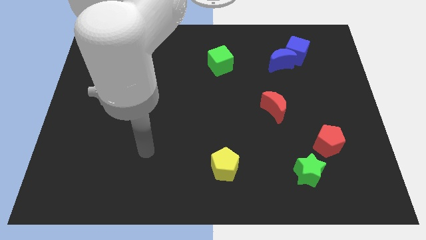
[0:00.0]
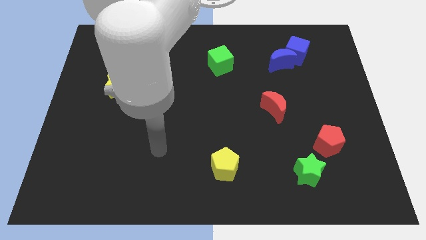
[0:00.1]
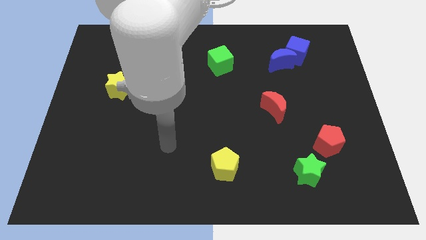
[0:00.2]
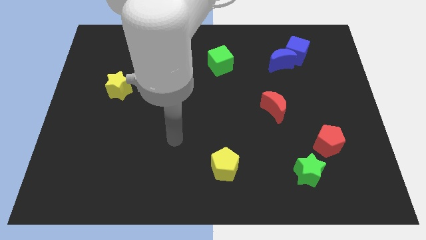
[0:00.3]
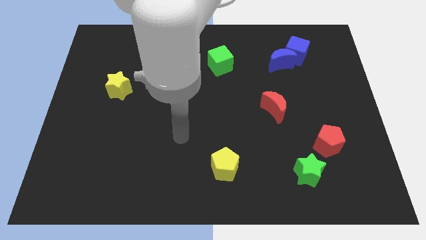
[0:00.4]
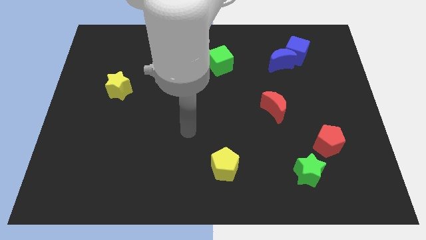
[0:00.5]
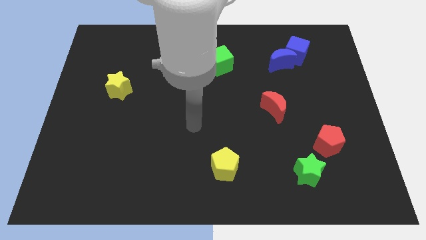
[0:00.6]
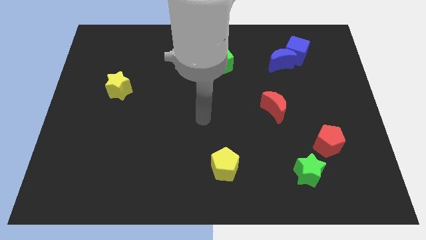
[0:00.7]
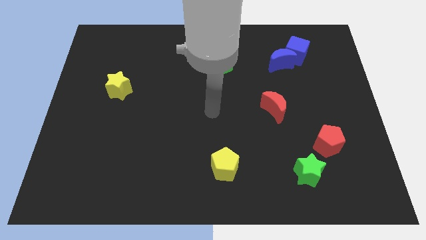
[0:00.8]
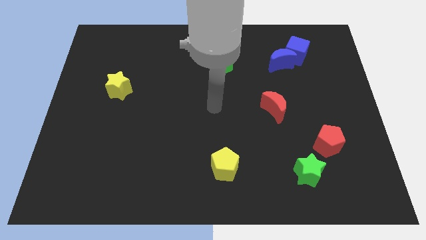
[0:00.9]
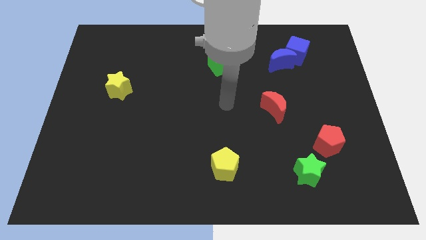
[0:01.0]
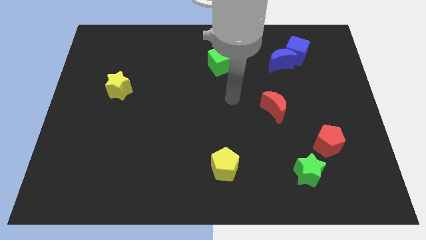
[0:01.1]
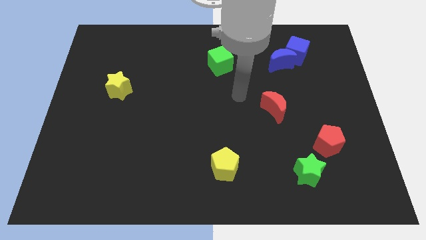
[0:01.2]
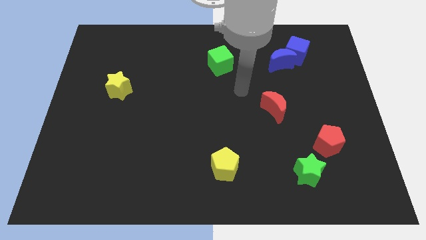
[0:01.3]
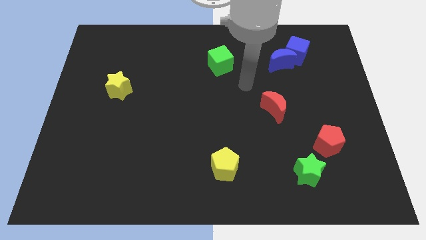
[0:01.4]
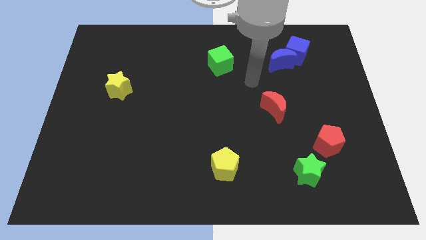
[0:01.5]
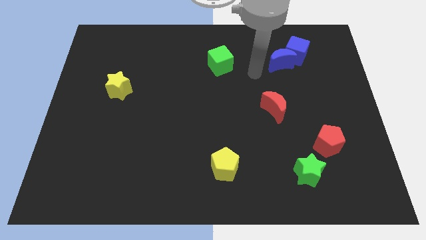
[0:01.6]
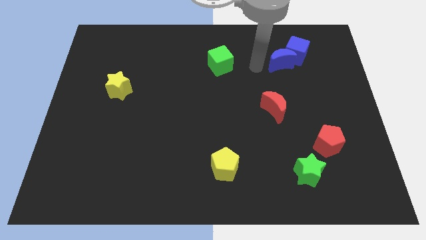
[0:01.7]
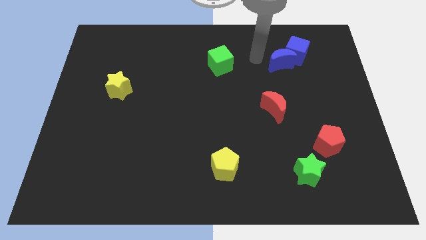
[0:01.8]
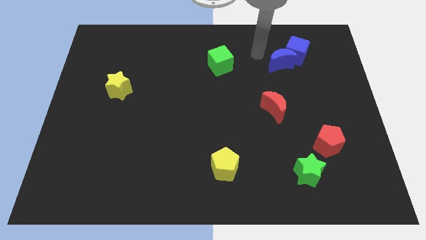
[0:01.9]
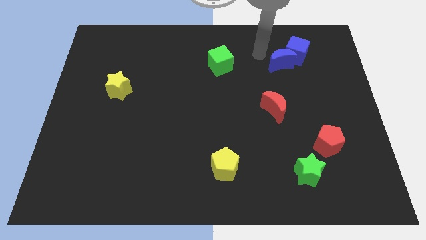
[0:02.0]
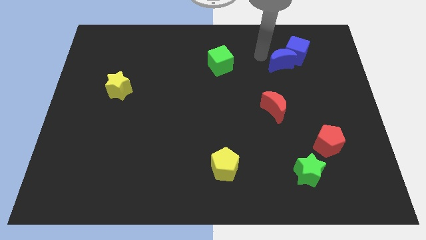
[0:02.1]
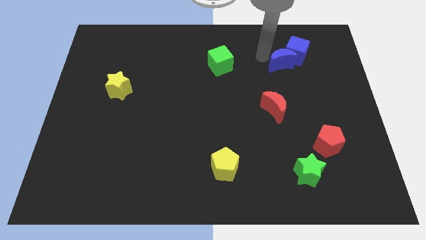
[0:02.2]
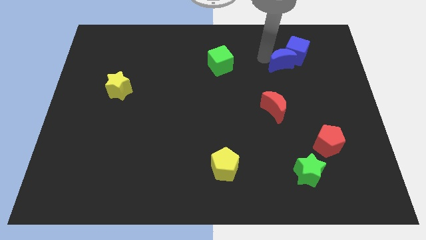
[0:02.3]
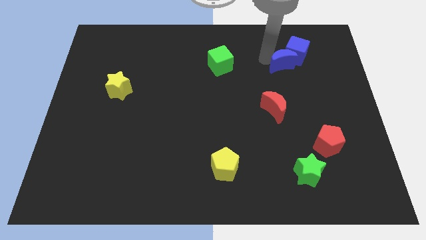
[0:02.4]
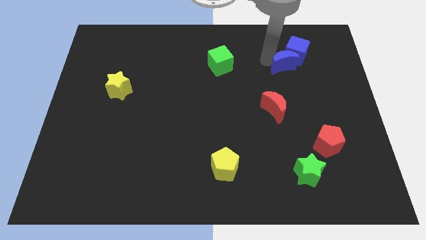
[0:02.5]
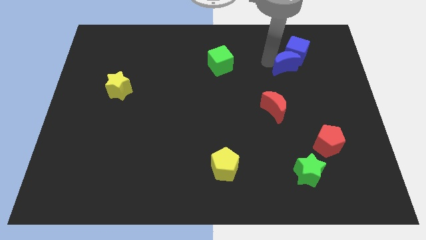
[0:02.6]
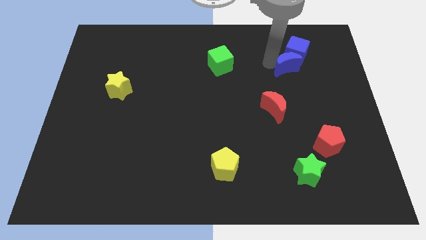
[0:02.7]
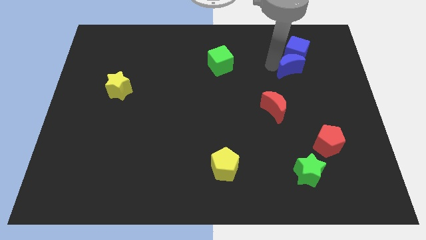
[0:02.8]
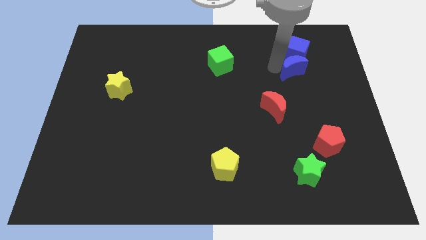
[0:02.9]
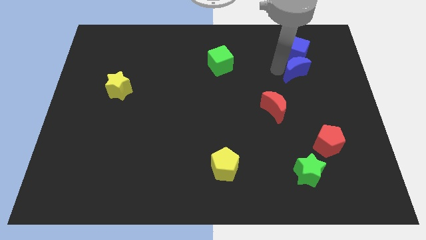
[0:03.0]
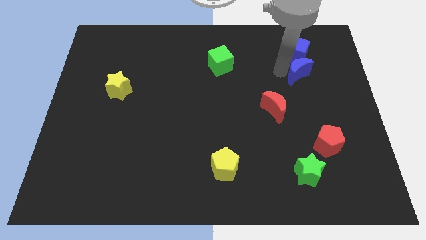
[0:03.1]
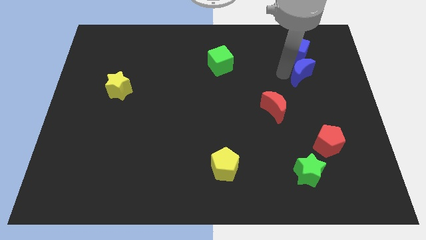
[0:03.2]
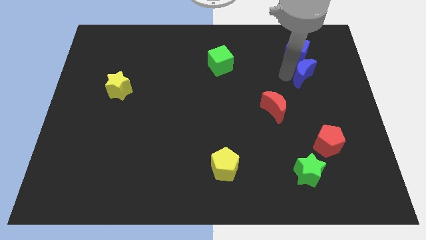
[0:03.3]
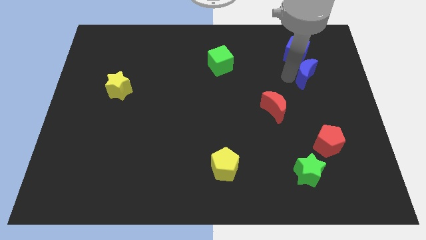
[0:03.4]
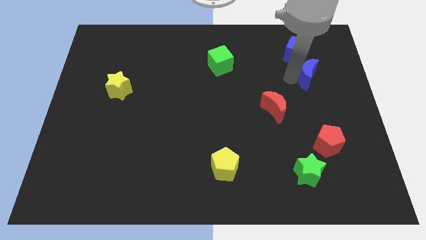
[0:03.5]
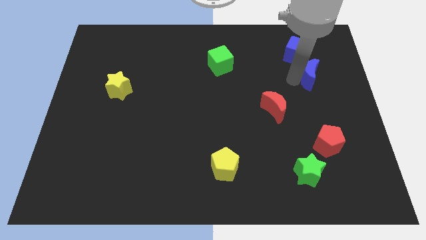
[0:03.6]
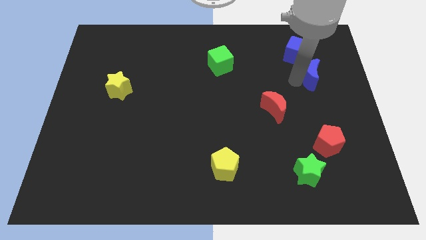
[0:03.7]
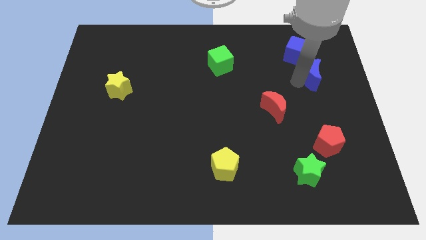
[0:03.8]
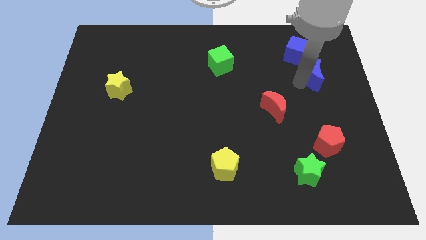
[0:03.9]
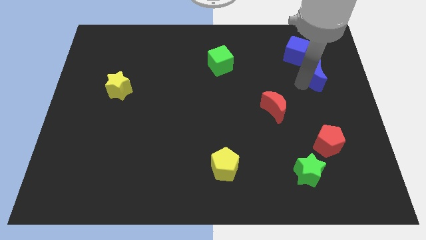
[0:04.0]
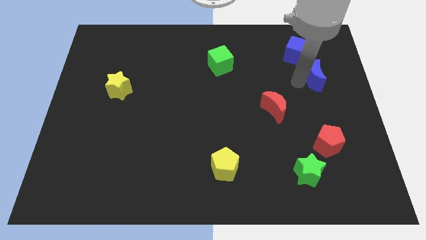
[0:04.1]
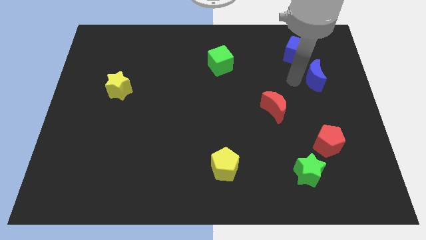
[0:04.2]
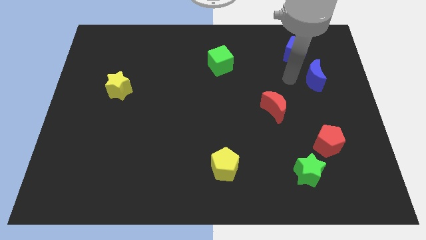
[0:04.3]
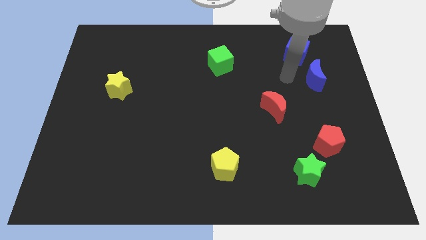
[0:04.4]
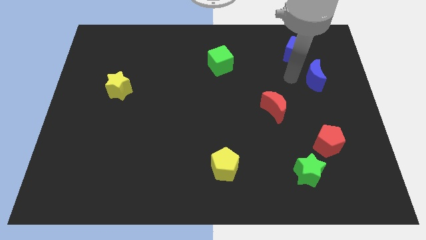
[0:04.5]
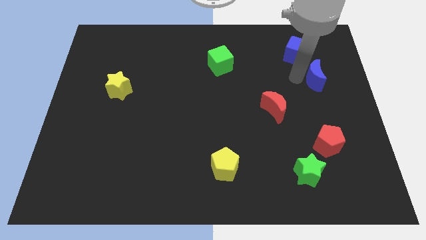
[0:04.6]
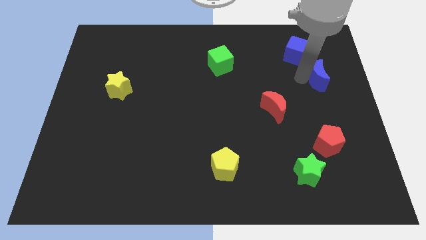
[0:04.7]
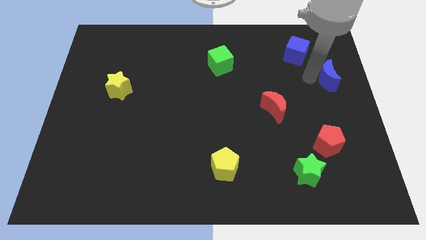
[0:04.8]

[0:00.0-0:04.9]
move the blue moon to the center right

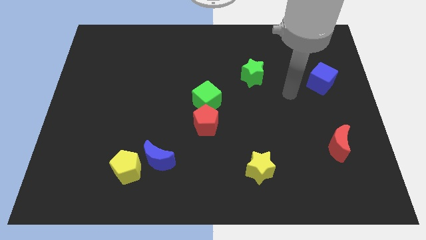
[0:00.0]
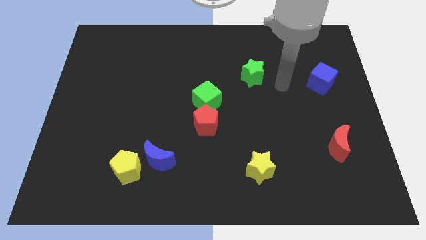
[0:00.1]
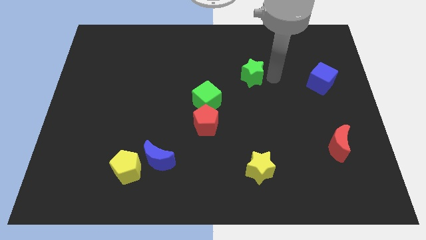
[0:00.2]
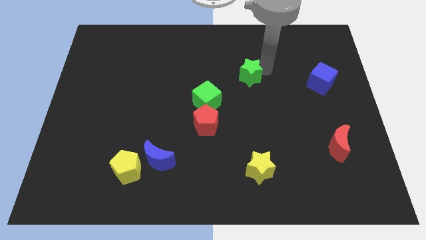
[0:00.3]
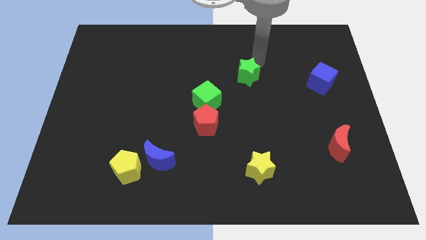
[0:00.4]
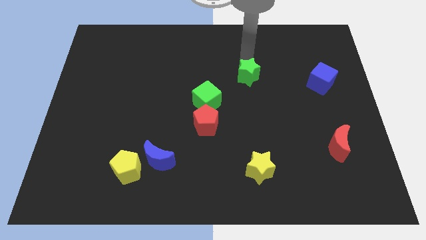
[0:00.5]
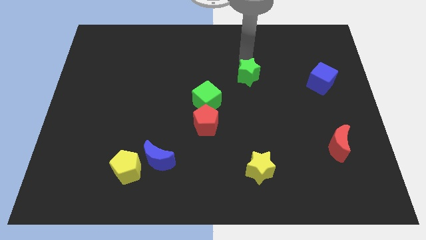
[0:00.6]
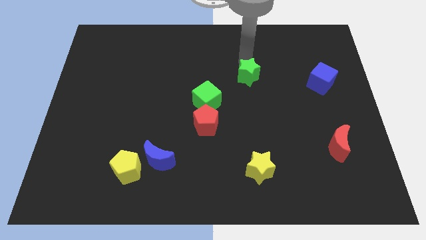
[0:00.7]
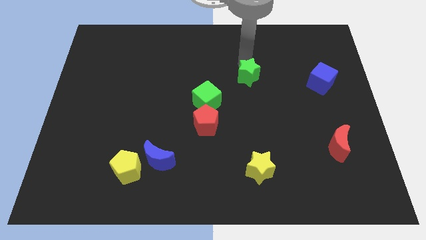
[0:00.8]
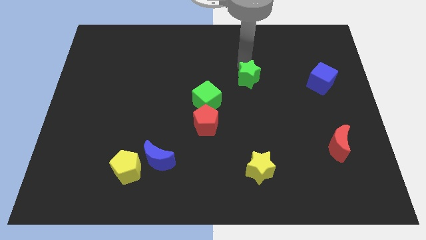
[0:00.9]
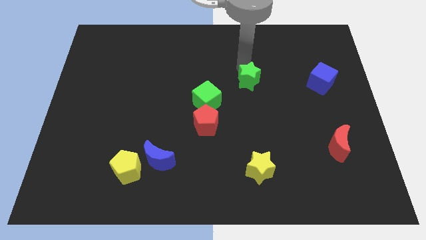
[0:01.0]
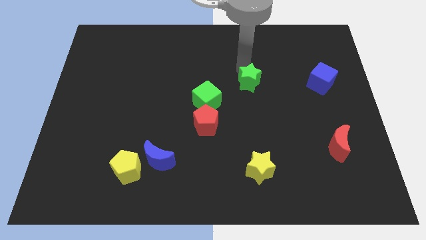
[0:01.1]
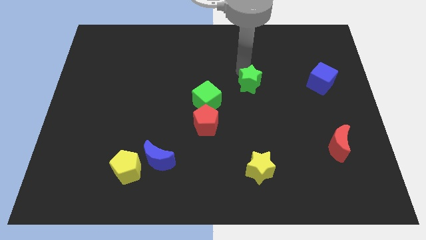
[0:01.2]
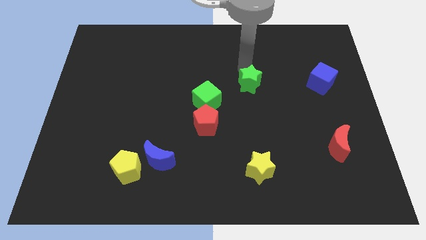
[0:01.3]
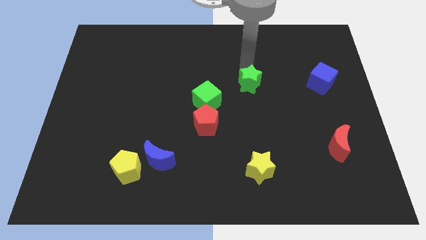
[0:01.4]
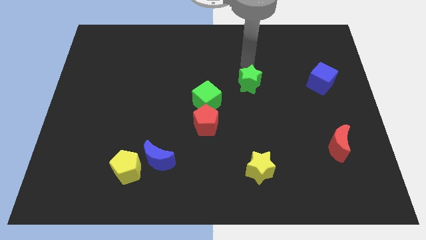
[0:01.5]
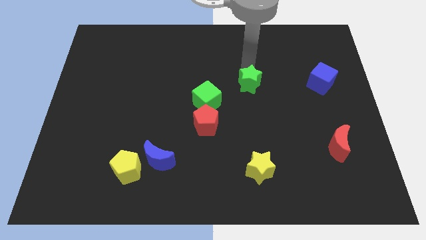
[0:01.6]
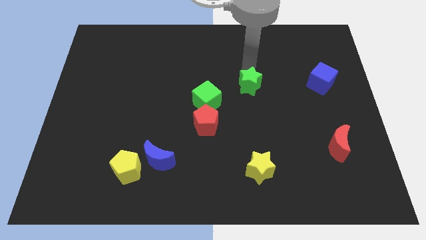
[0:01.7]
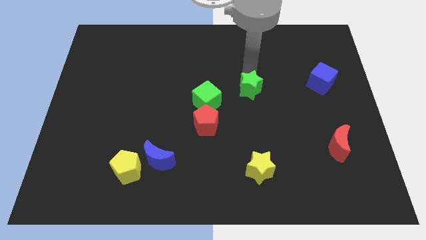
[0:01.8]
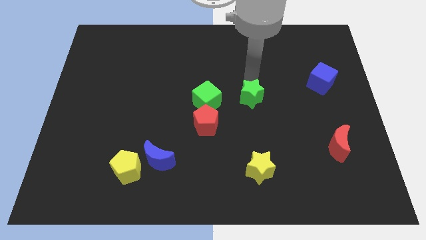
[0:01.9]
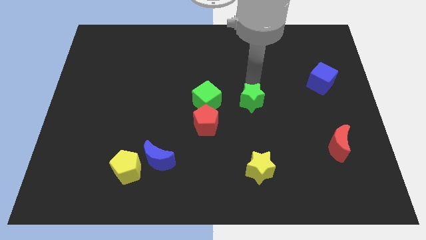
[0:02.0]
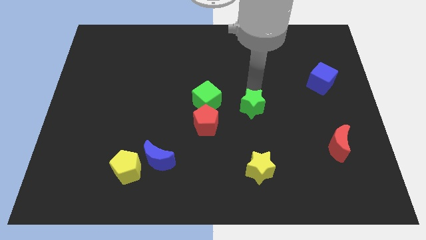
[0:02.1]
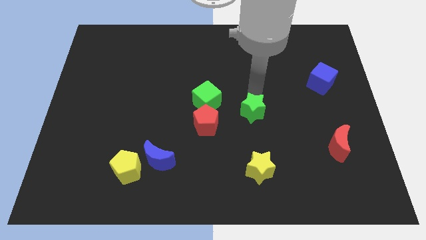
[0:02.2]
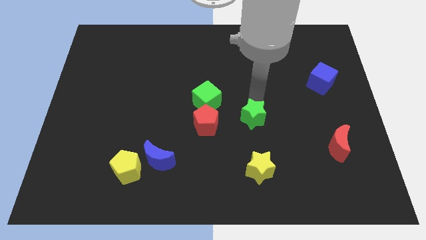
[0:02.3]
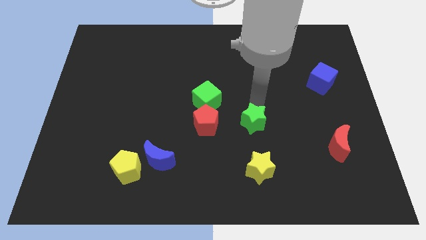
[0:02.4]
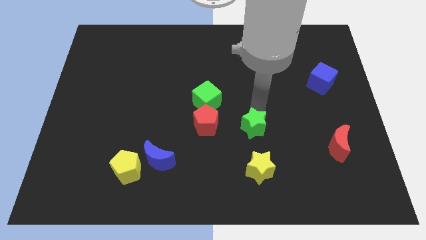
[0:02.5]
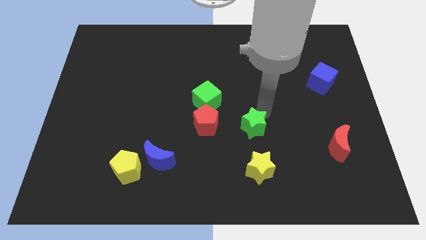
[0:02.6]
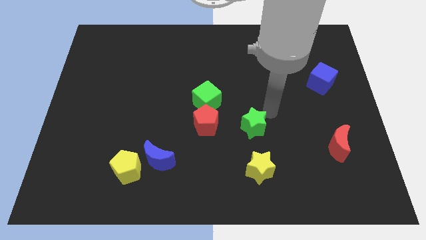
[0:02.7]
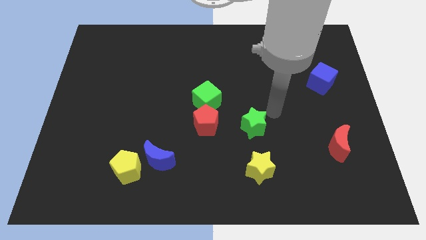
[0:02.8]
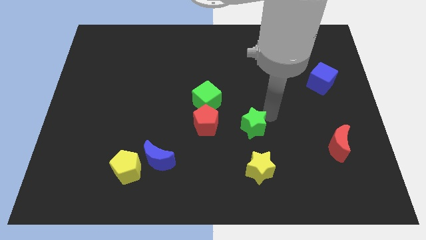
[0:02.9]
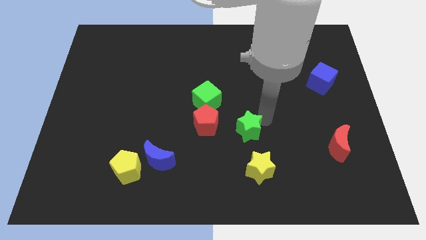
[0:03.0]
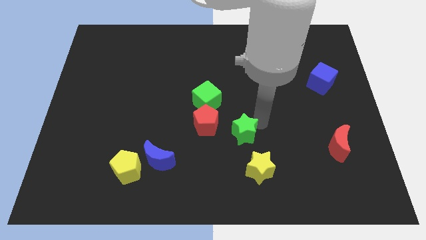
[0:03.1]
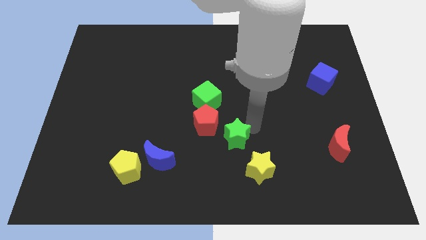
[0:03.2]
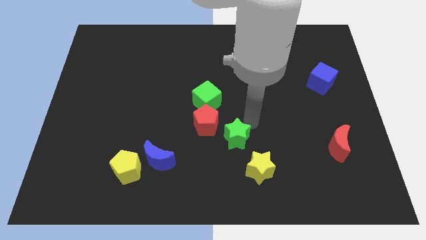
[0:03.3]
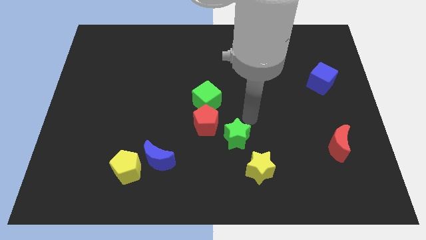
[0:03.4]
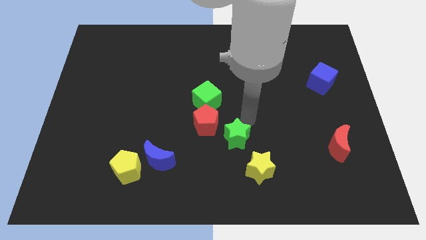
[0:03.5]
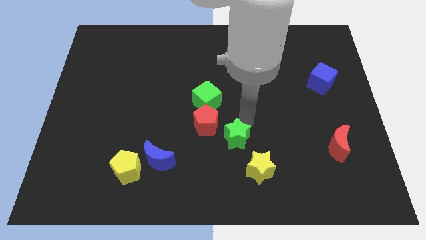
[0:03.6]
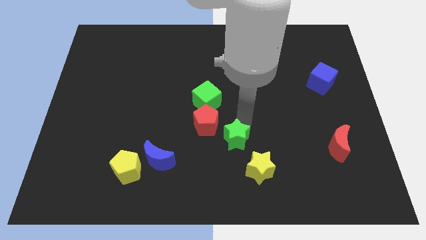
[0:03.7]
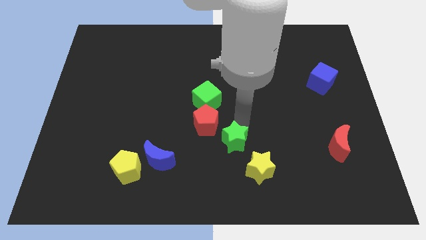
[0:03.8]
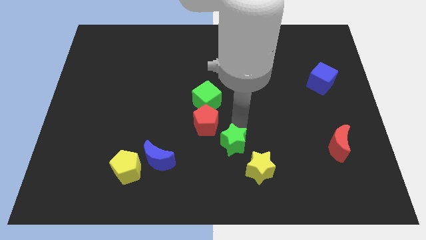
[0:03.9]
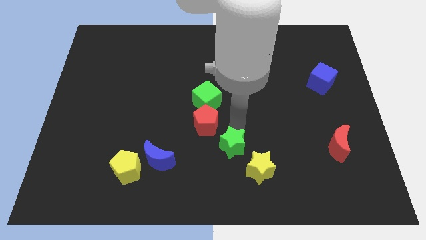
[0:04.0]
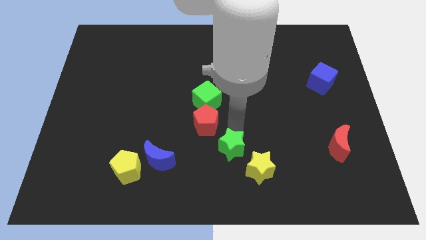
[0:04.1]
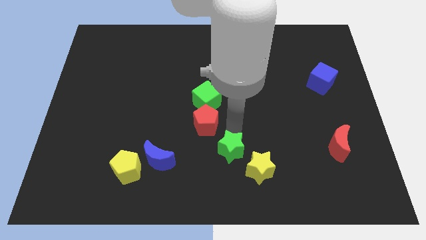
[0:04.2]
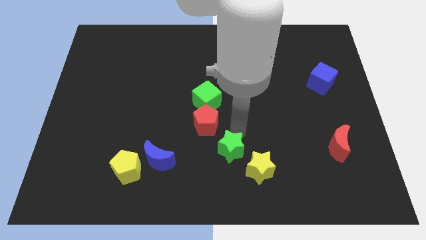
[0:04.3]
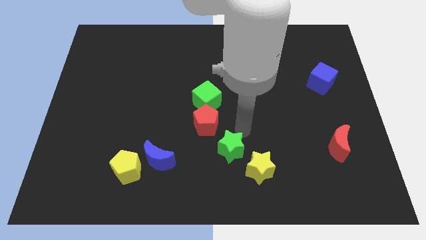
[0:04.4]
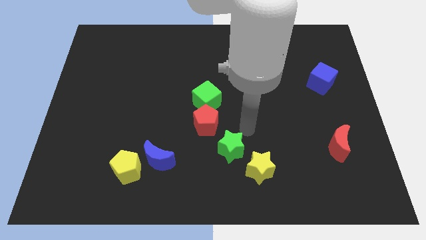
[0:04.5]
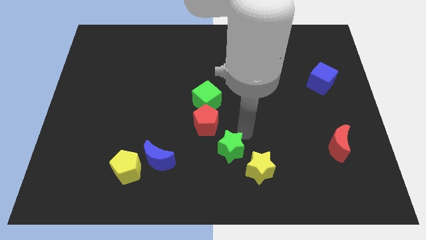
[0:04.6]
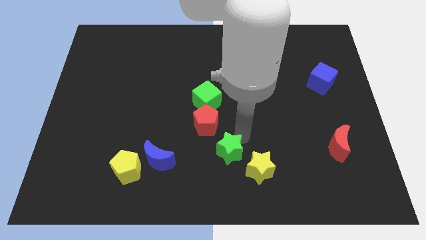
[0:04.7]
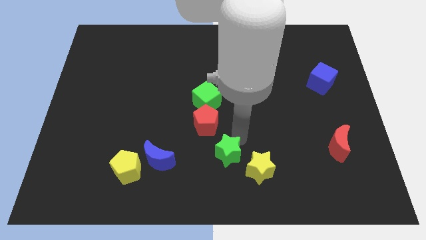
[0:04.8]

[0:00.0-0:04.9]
put the green star to the bottom side
